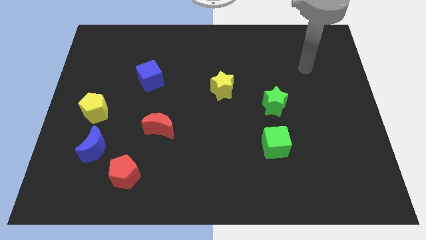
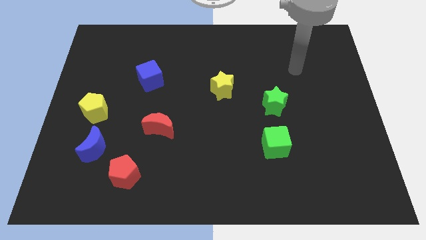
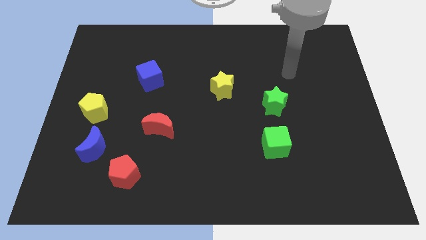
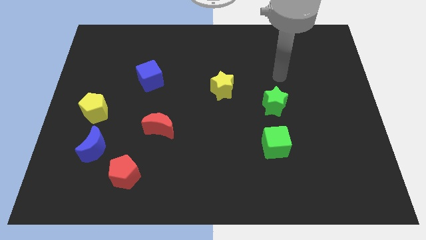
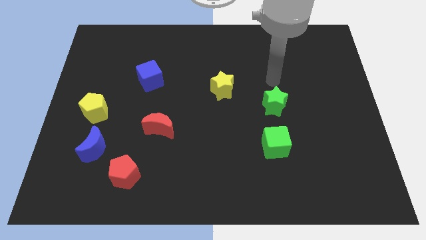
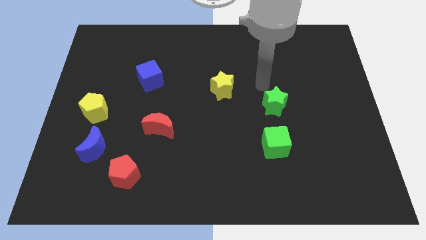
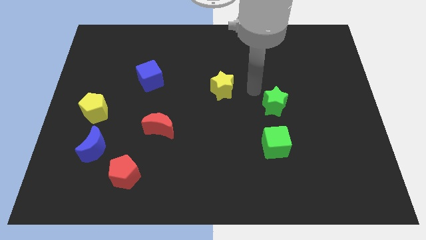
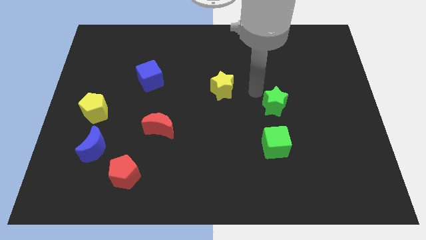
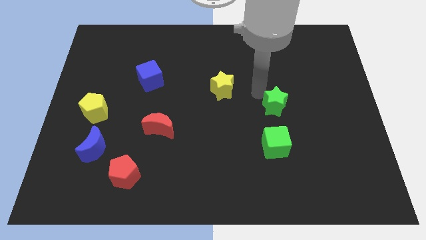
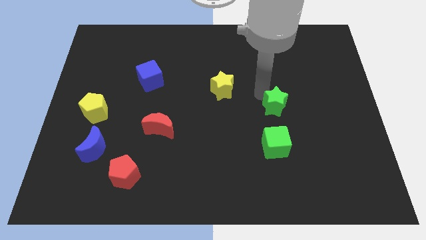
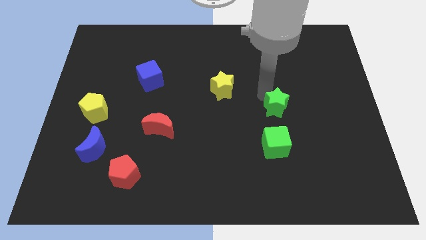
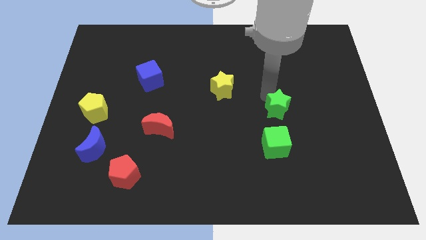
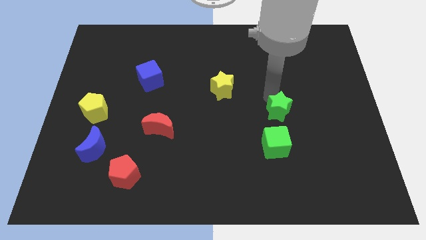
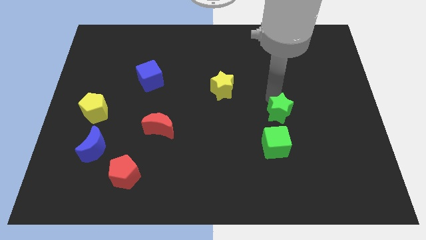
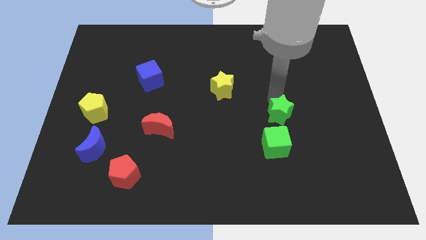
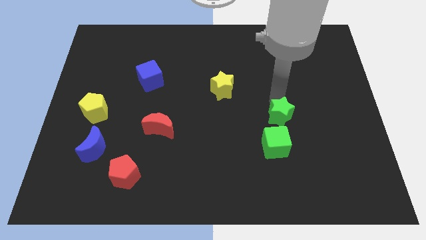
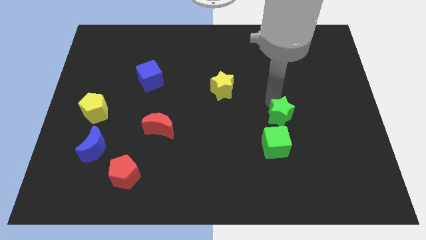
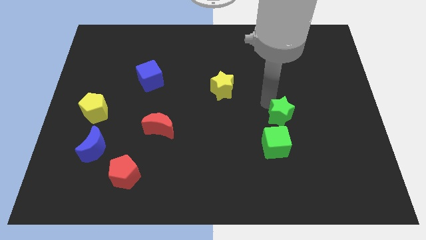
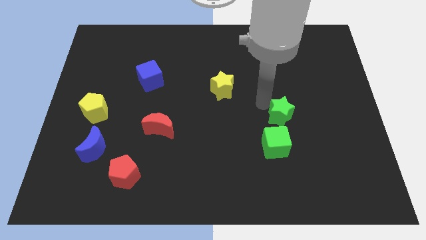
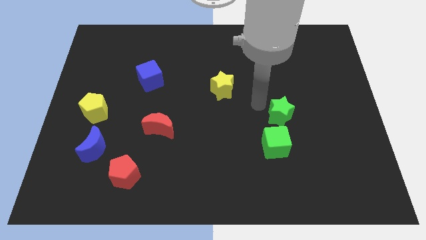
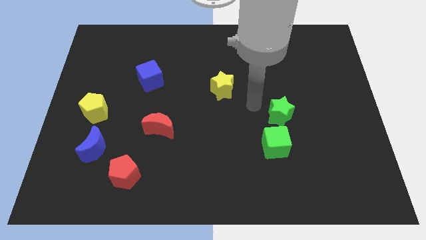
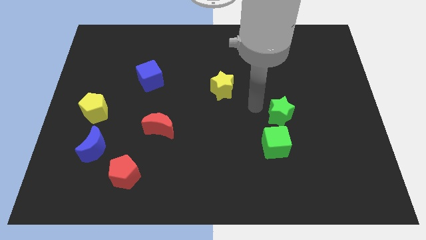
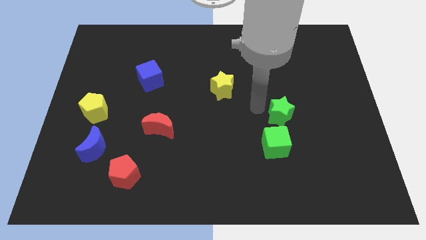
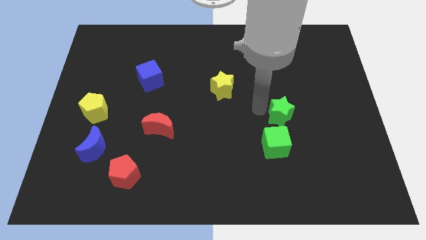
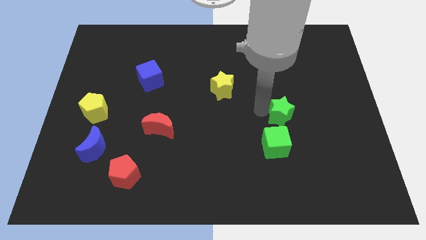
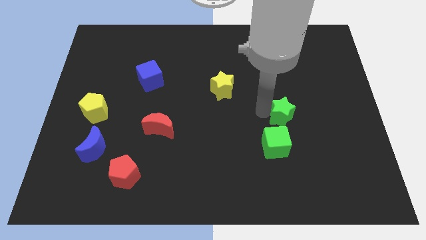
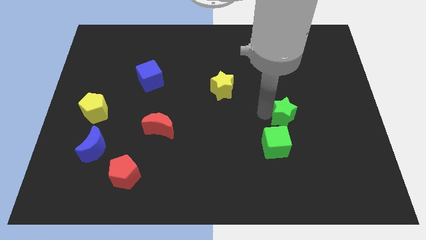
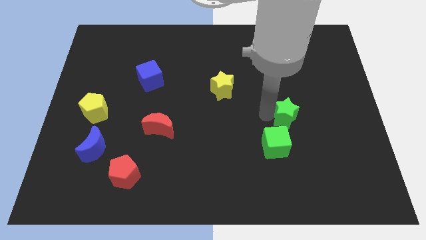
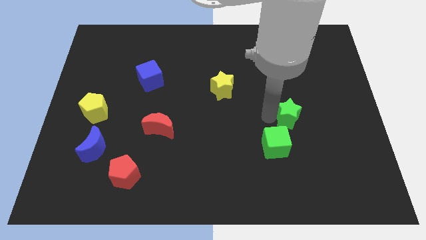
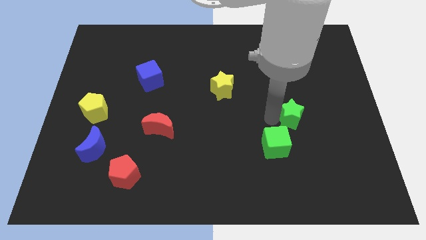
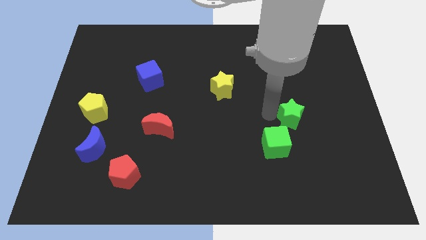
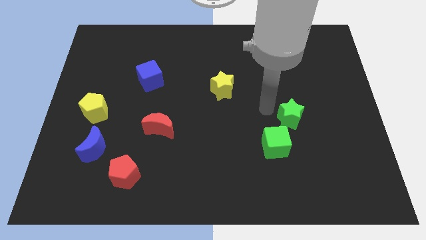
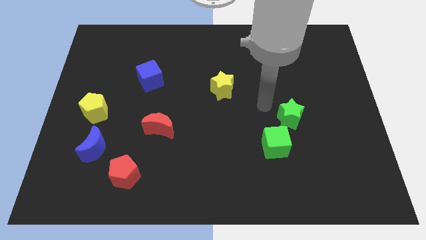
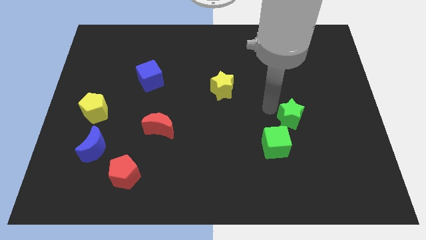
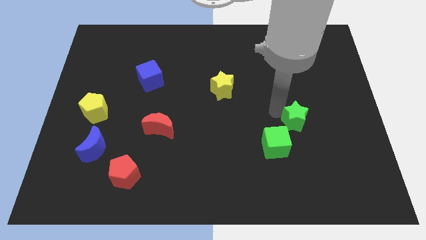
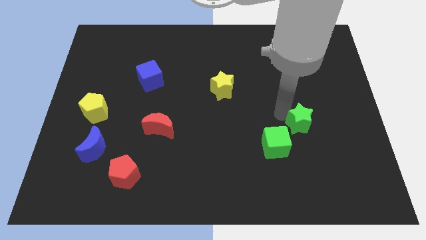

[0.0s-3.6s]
slightly slide the green star downwards and to the right

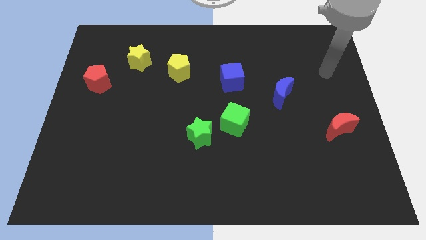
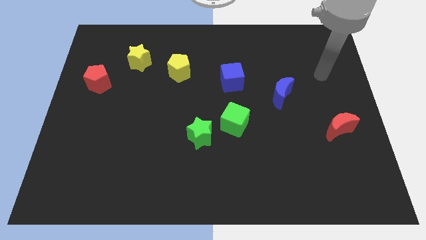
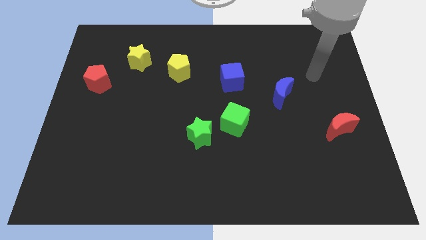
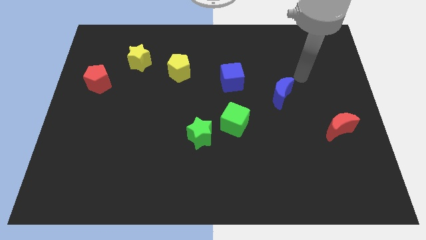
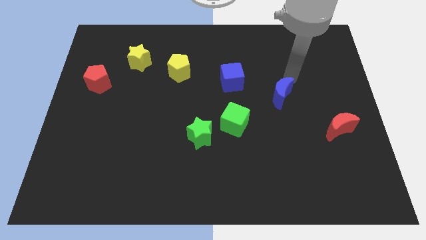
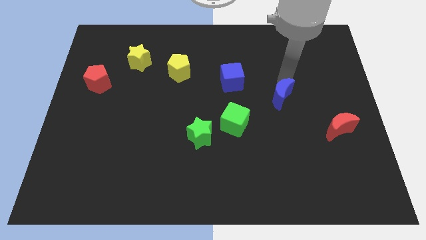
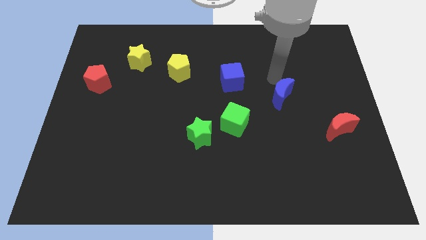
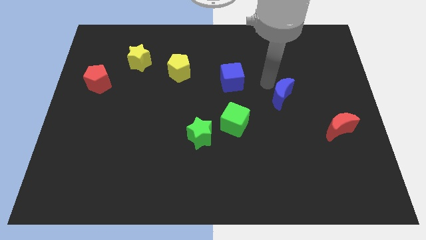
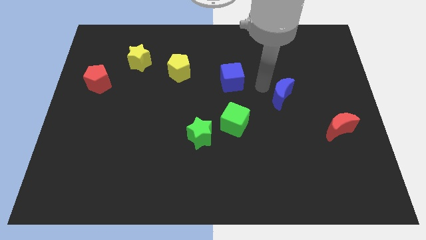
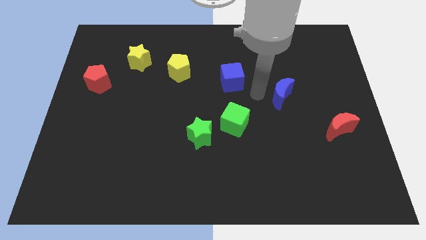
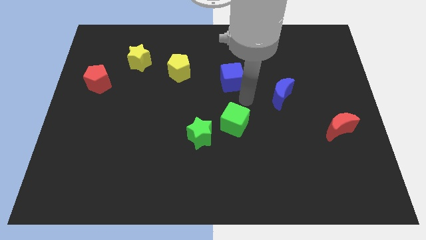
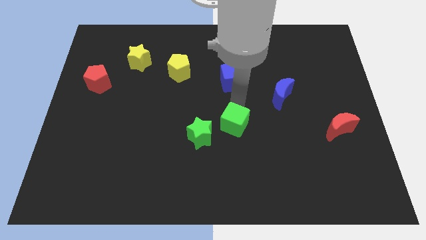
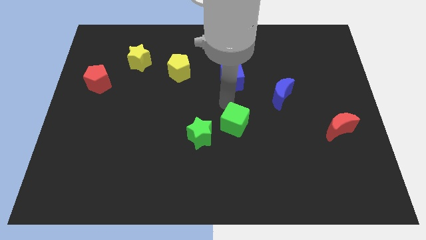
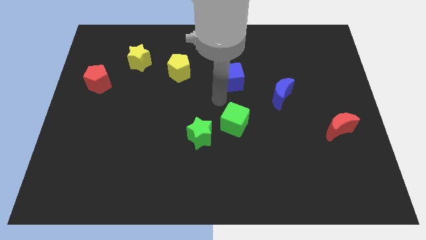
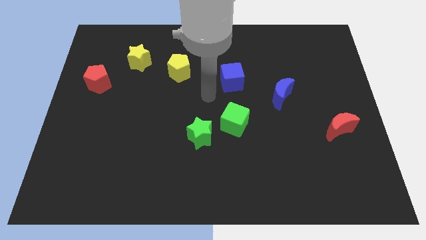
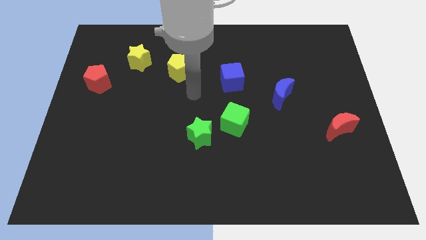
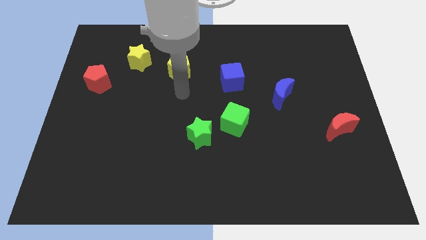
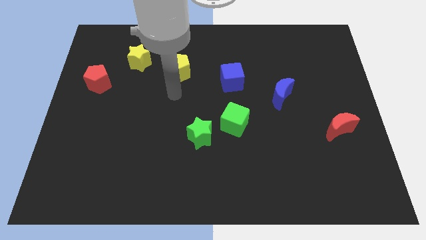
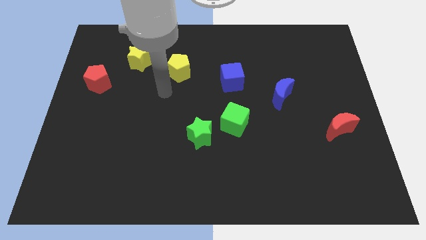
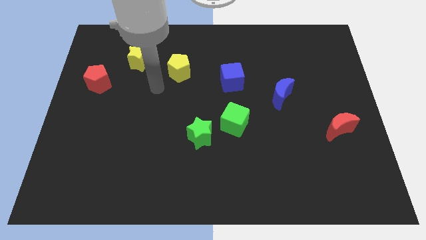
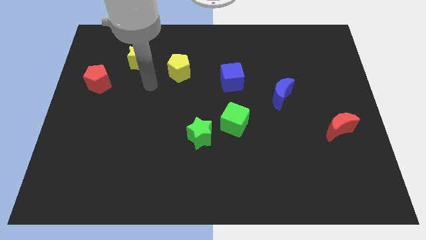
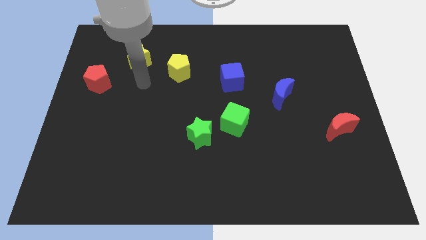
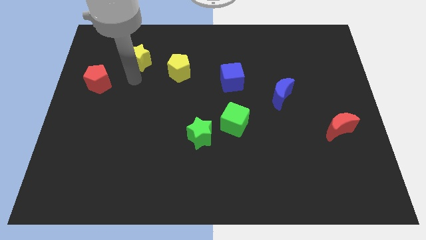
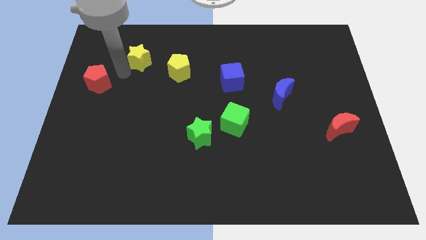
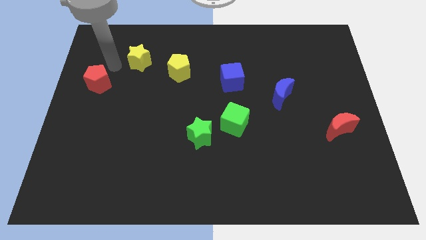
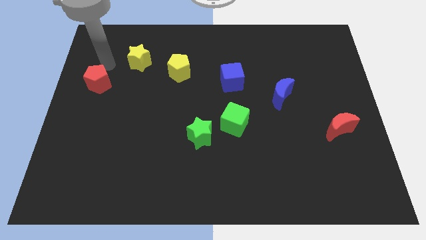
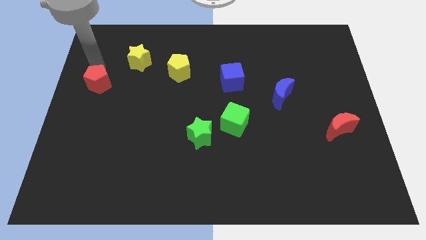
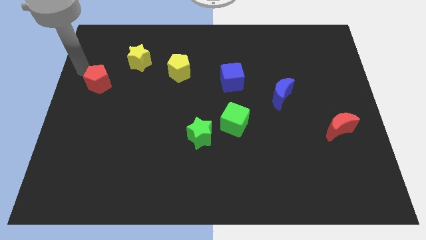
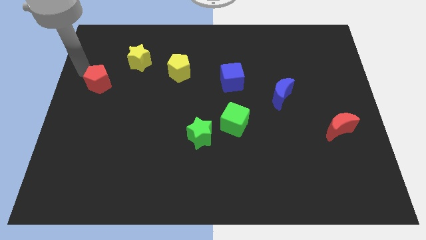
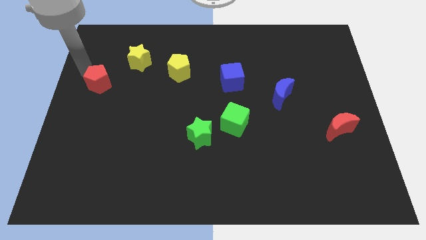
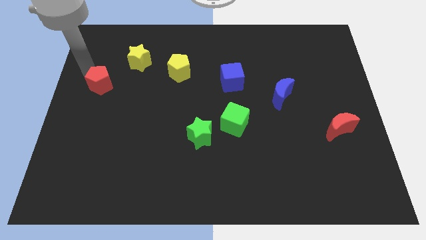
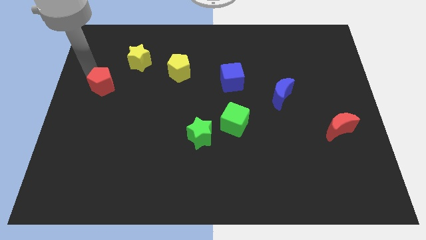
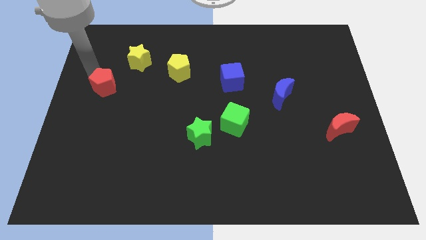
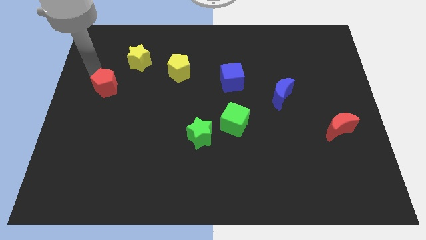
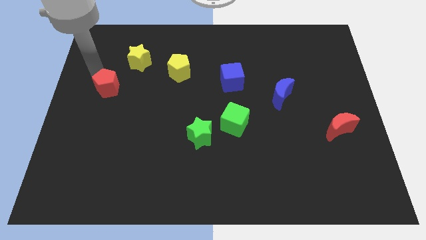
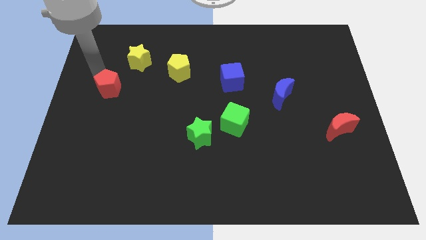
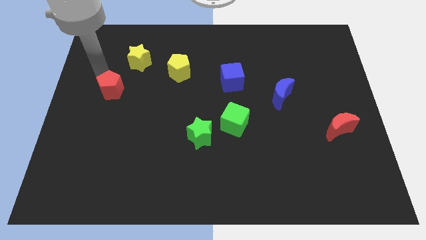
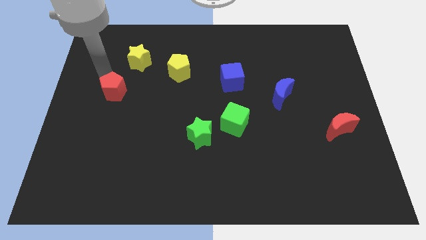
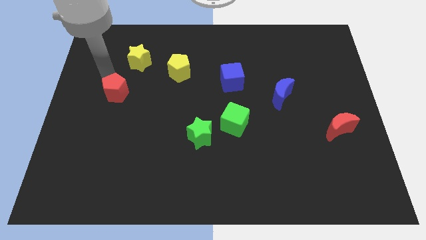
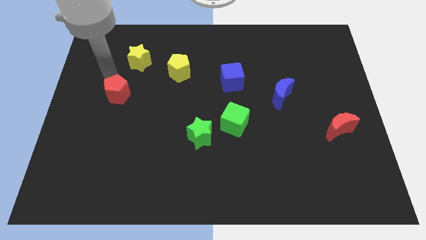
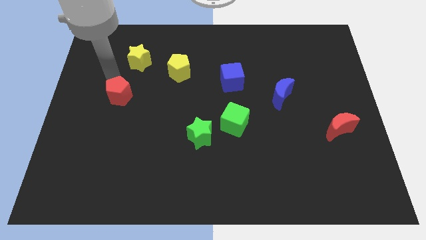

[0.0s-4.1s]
push the red pentagon down and then to the right slightly

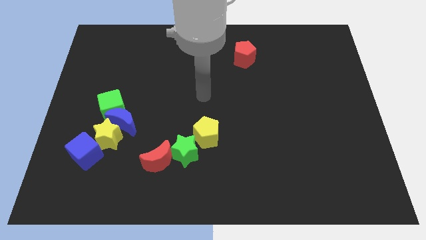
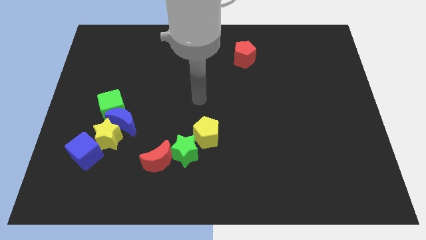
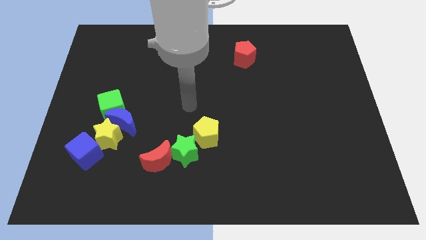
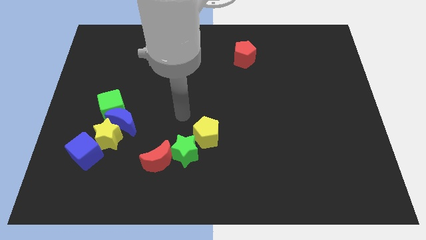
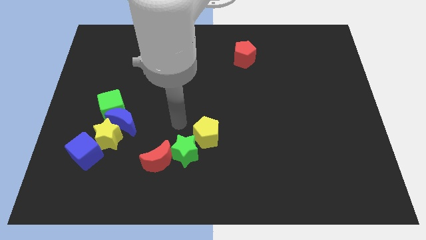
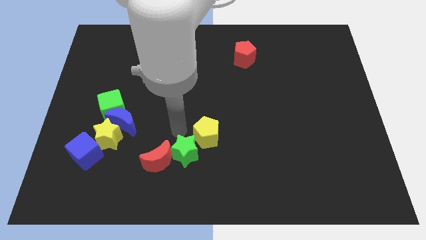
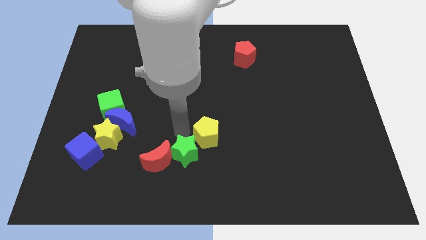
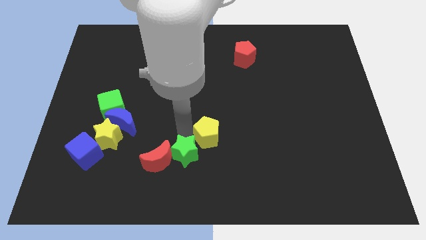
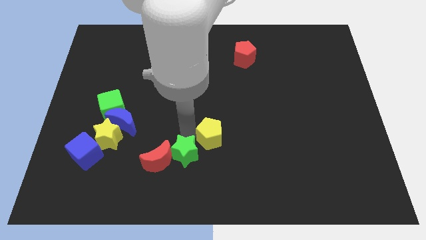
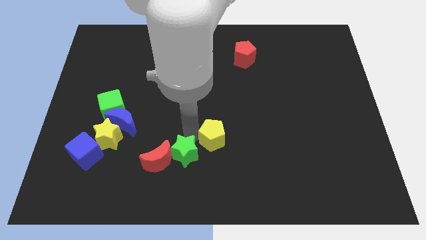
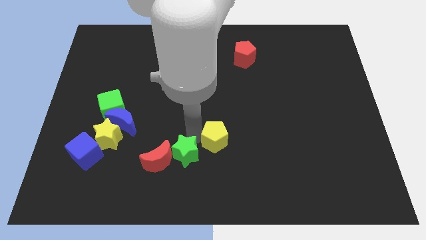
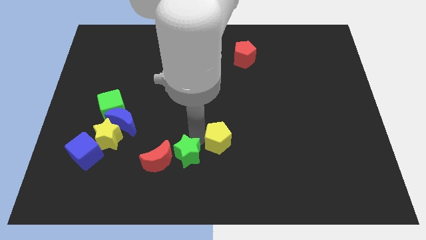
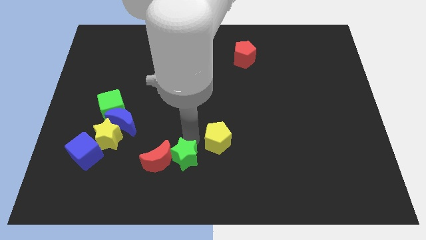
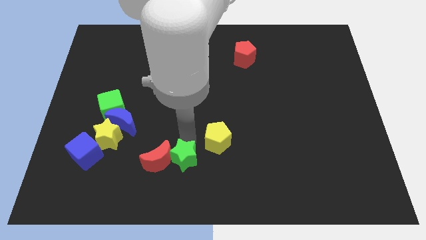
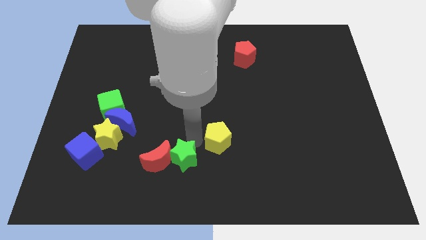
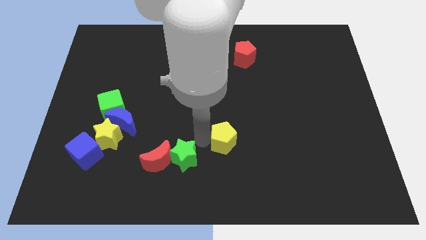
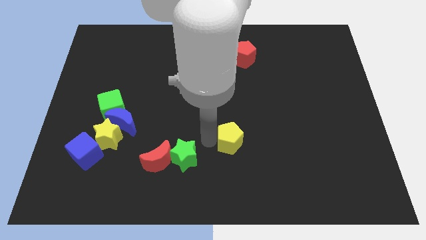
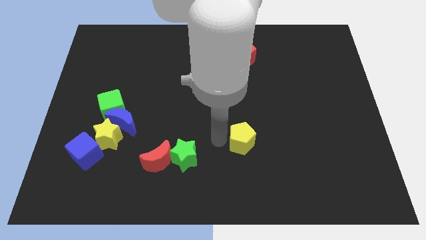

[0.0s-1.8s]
move the yellow pentagon a little to the right
